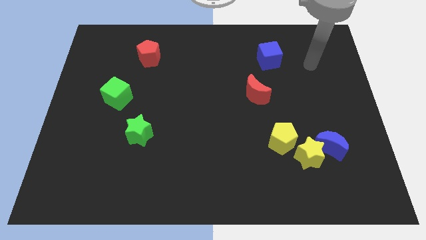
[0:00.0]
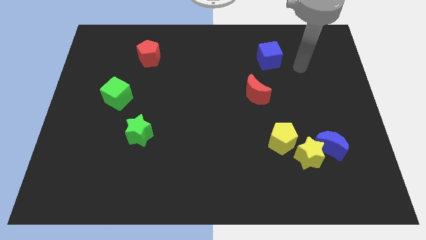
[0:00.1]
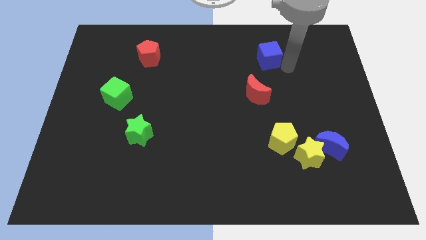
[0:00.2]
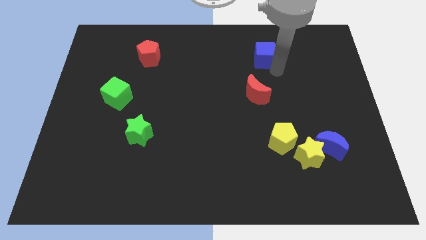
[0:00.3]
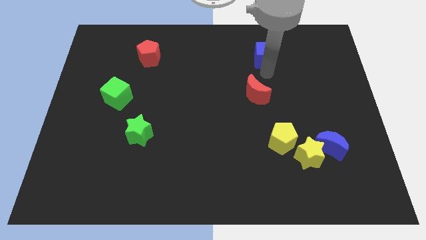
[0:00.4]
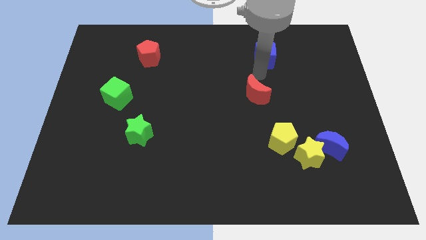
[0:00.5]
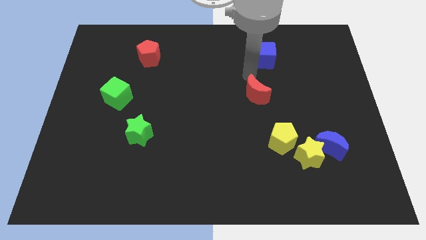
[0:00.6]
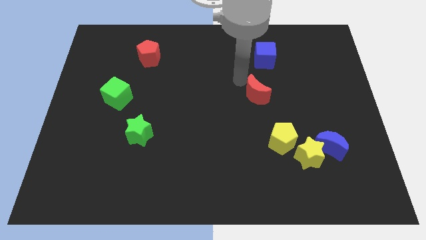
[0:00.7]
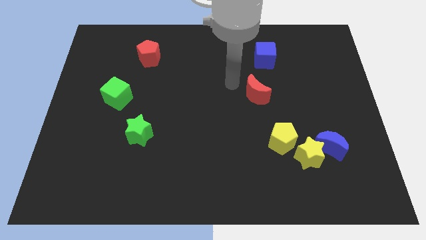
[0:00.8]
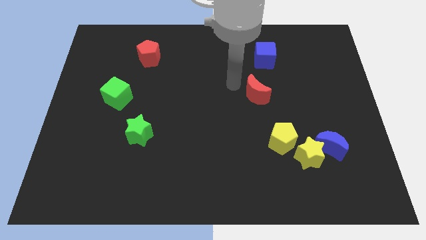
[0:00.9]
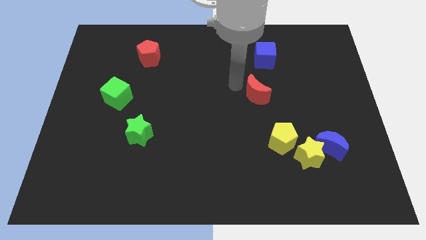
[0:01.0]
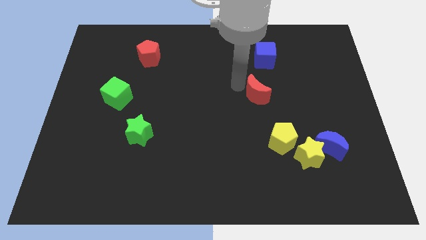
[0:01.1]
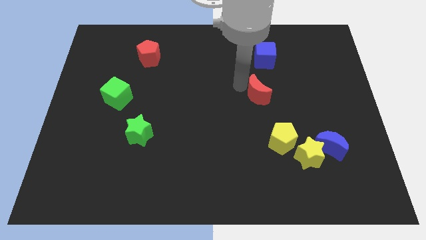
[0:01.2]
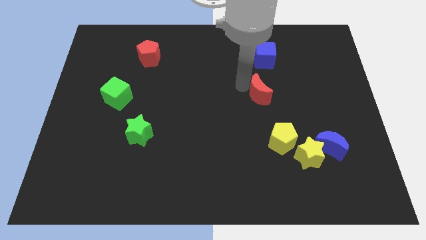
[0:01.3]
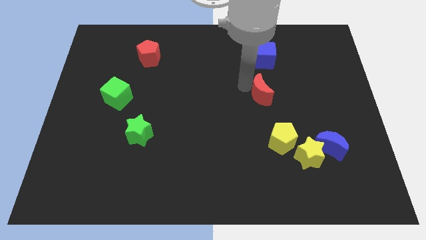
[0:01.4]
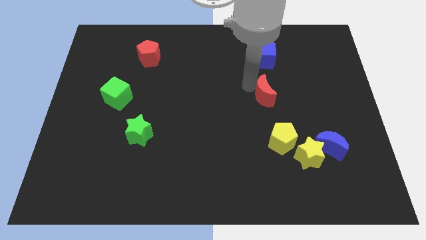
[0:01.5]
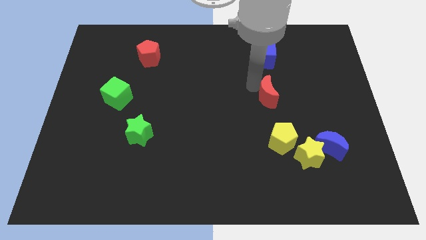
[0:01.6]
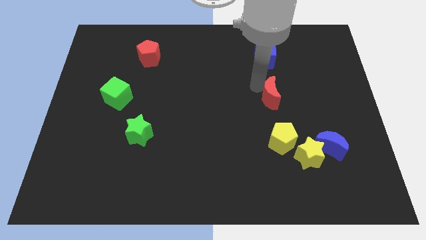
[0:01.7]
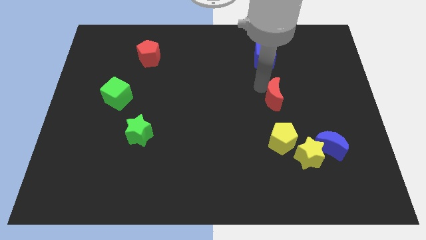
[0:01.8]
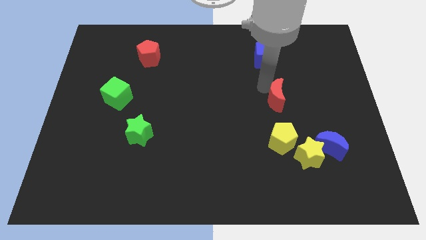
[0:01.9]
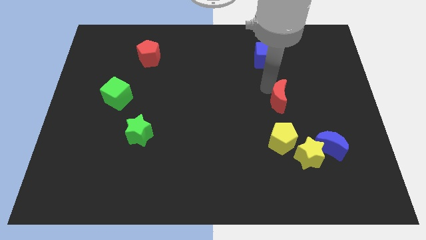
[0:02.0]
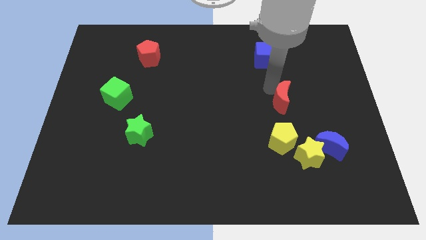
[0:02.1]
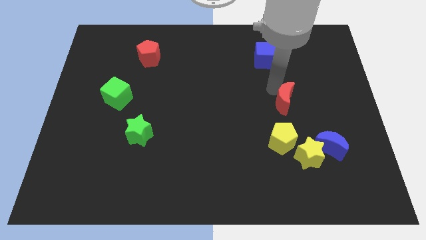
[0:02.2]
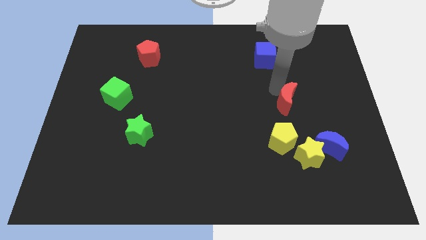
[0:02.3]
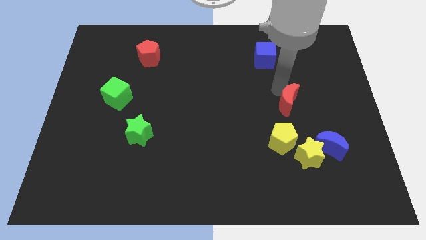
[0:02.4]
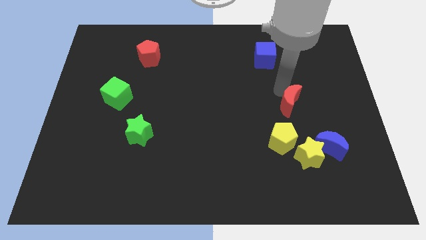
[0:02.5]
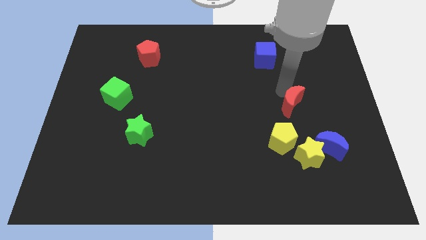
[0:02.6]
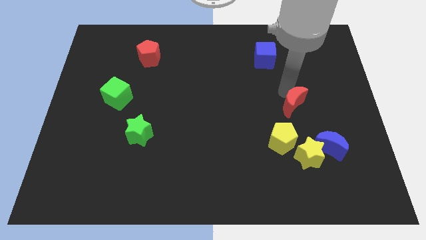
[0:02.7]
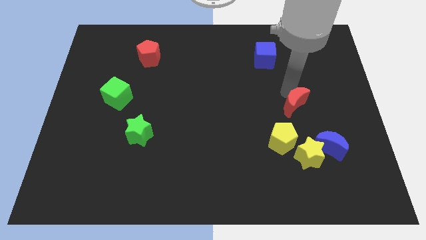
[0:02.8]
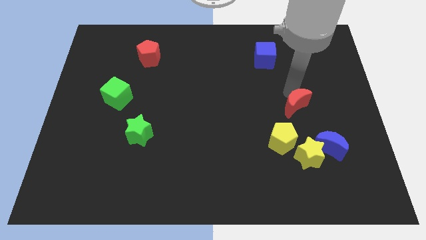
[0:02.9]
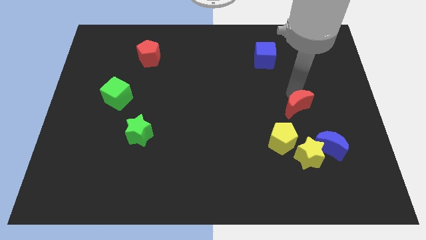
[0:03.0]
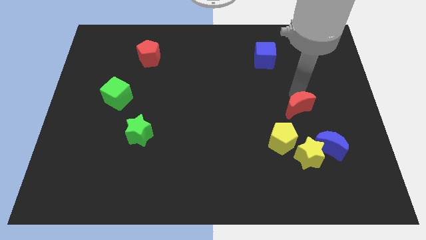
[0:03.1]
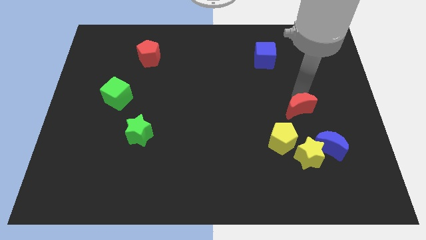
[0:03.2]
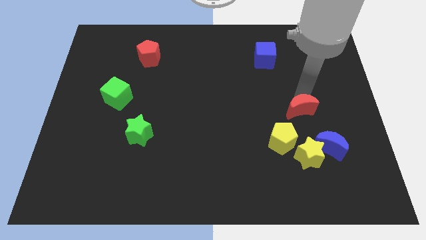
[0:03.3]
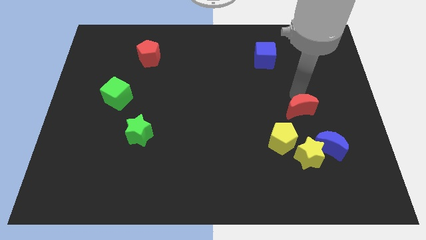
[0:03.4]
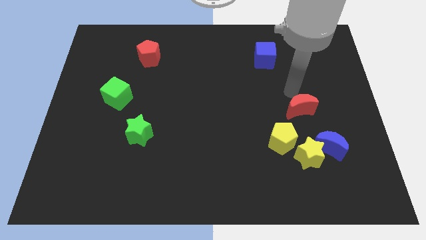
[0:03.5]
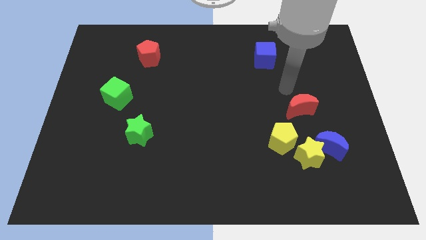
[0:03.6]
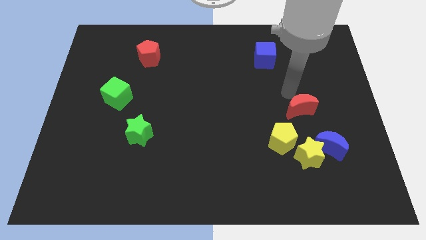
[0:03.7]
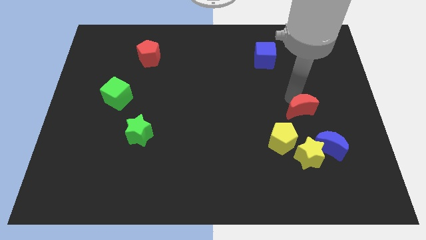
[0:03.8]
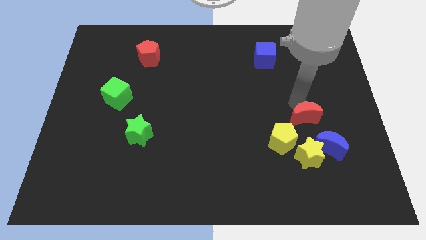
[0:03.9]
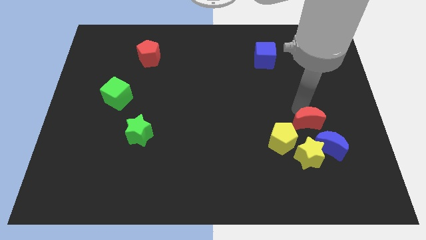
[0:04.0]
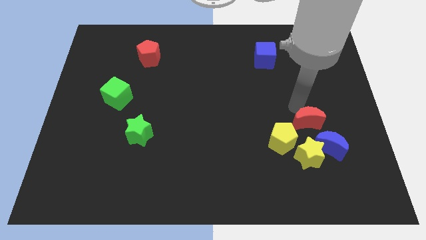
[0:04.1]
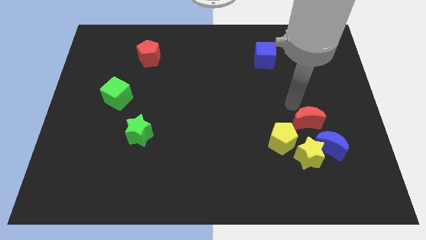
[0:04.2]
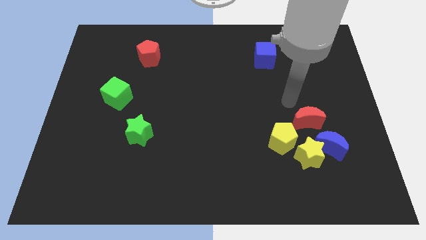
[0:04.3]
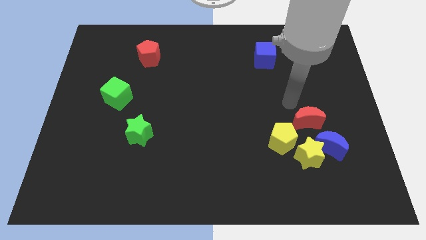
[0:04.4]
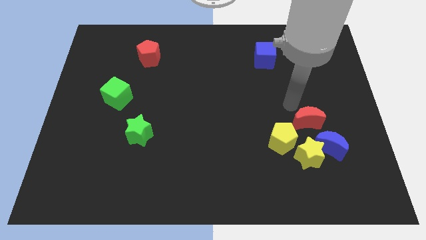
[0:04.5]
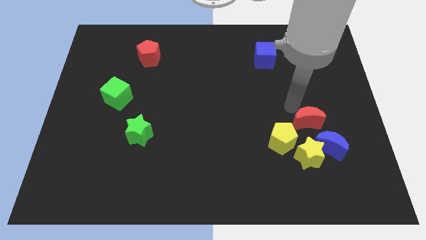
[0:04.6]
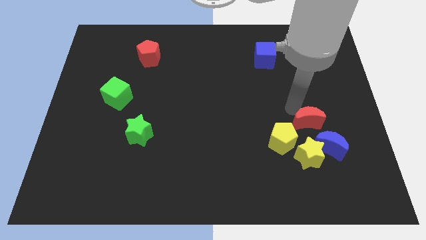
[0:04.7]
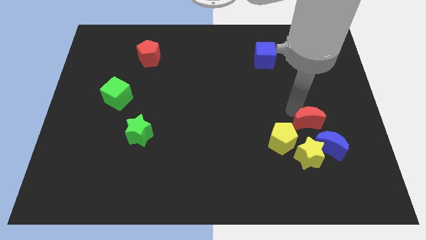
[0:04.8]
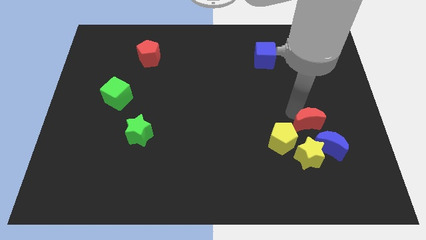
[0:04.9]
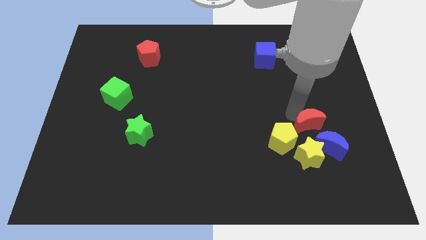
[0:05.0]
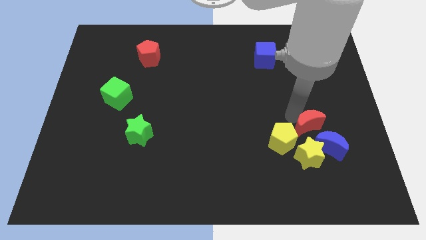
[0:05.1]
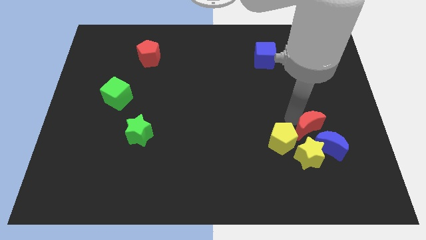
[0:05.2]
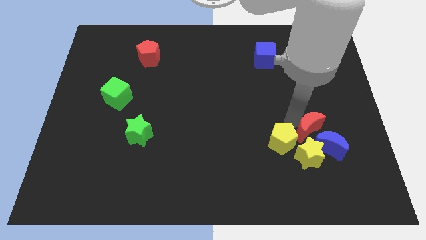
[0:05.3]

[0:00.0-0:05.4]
slide the red moon towards the blue moon

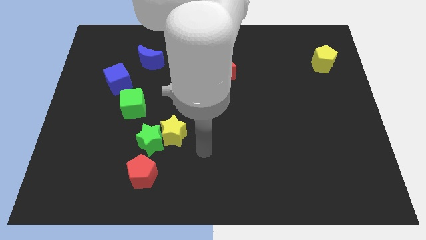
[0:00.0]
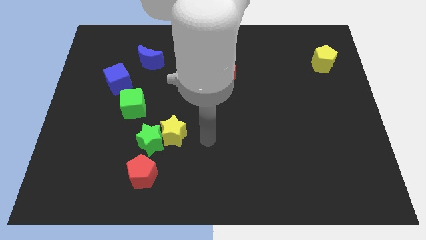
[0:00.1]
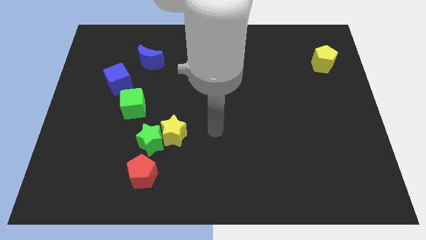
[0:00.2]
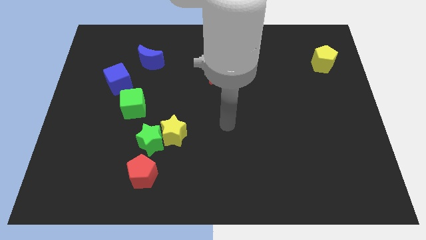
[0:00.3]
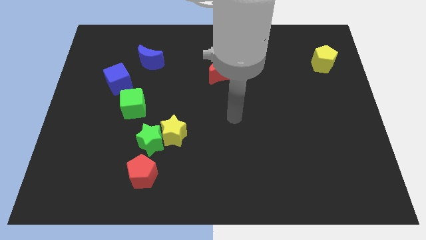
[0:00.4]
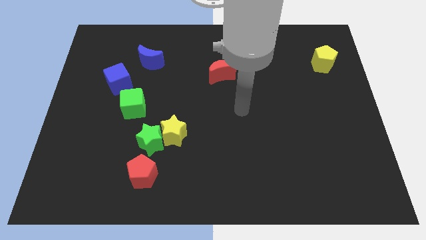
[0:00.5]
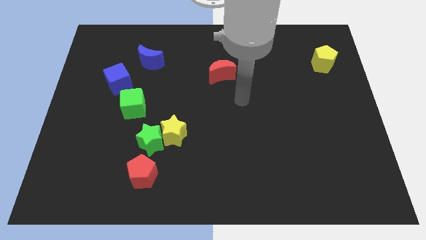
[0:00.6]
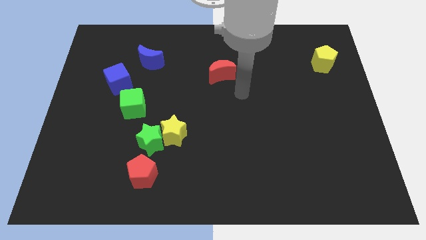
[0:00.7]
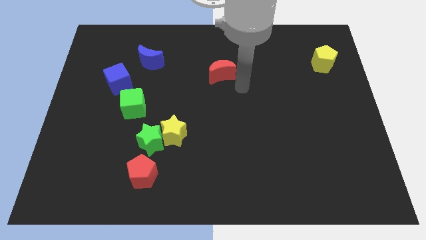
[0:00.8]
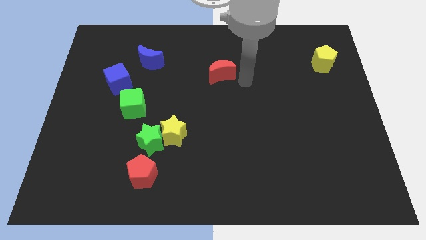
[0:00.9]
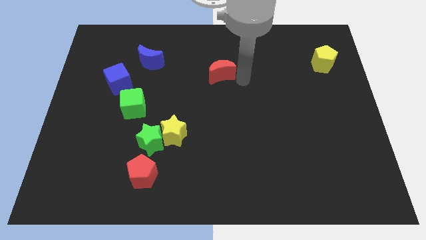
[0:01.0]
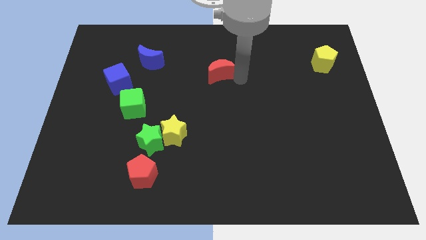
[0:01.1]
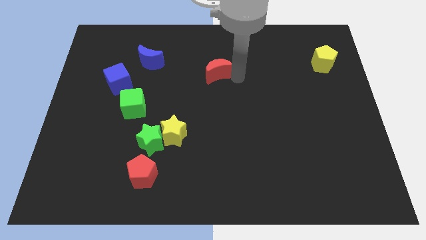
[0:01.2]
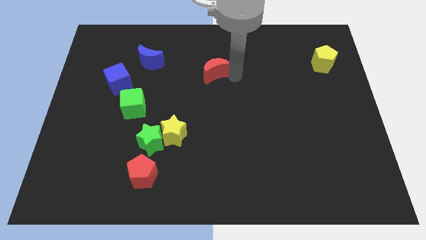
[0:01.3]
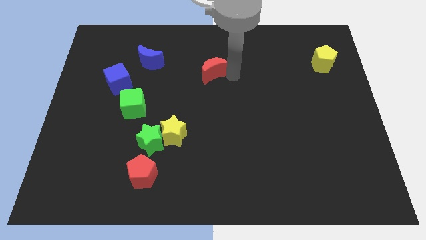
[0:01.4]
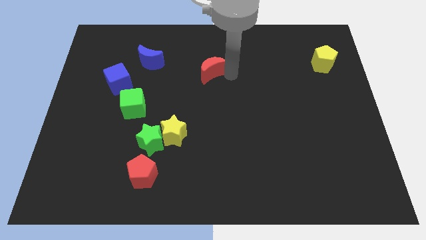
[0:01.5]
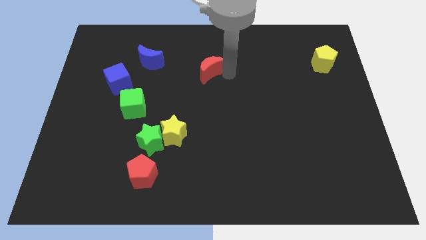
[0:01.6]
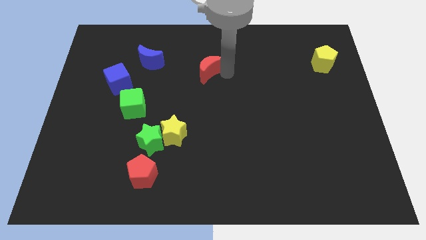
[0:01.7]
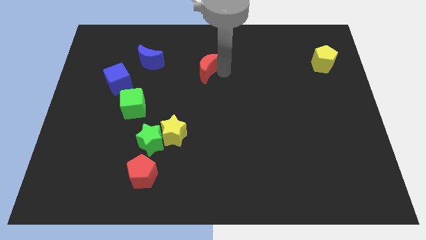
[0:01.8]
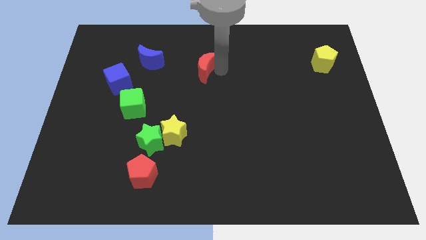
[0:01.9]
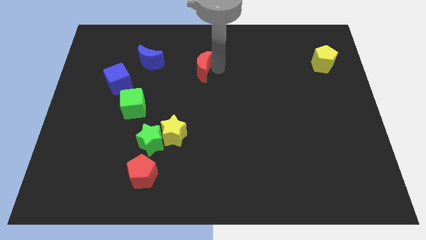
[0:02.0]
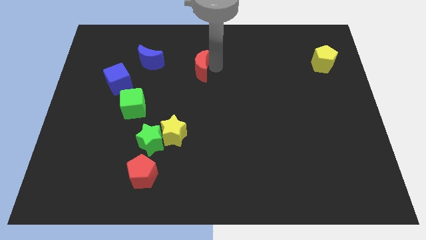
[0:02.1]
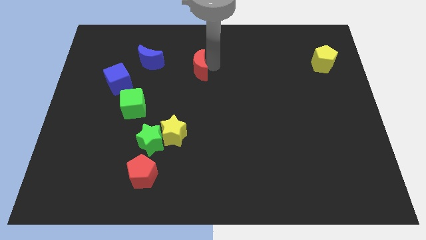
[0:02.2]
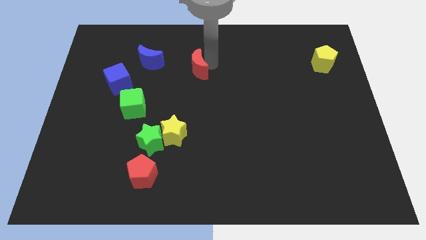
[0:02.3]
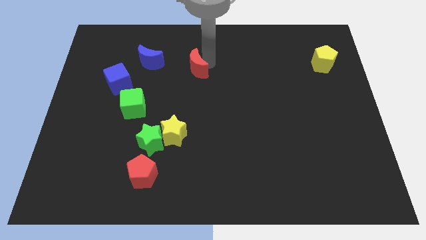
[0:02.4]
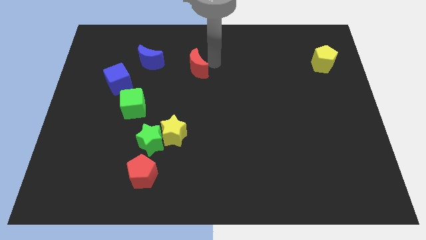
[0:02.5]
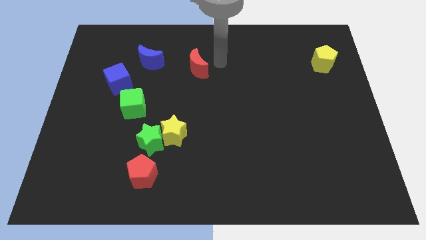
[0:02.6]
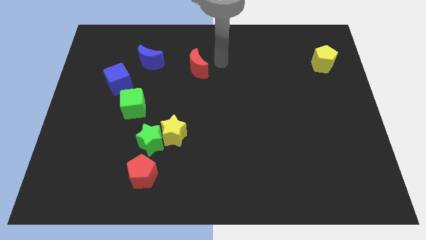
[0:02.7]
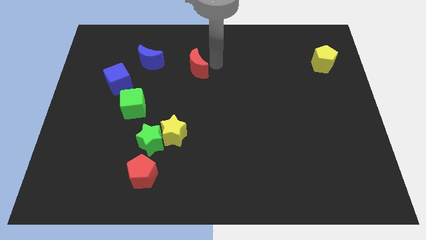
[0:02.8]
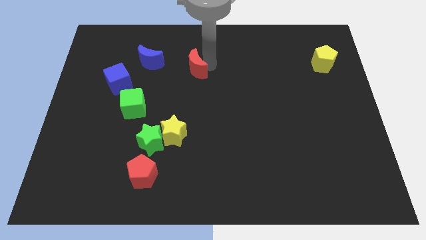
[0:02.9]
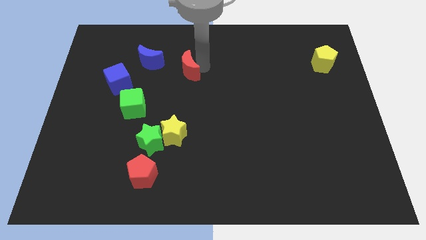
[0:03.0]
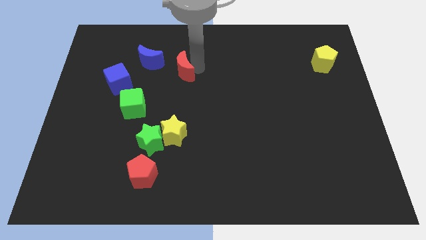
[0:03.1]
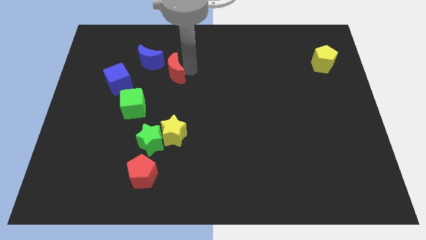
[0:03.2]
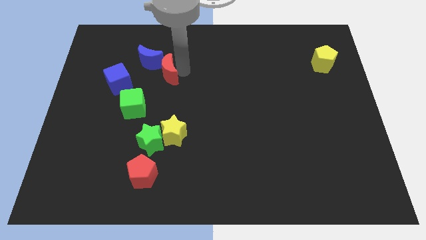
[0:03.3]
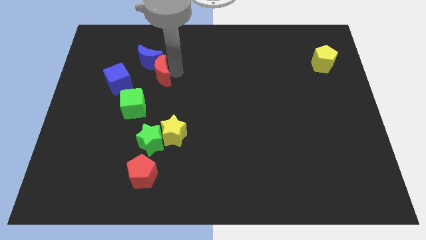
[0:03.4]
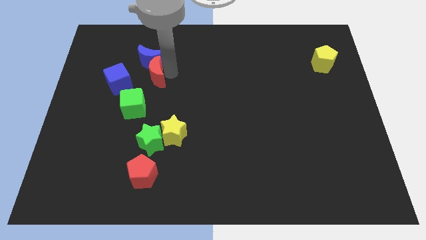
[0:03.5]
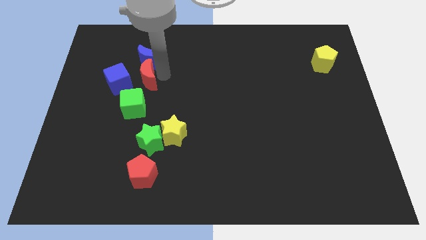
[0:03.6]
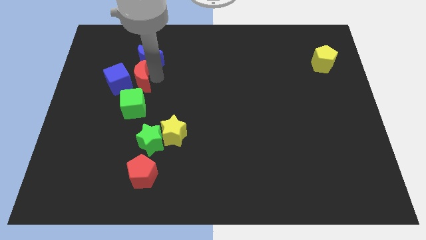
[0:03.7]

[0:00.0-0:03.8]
move the red moon to the blue cube
